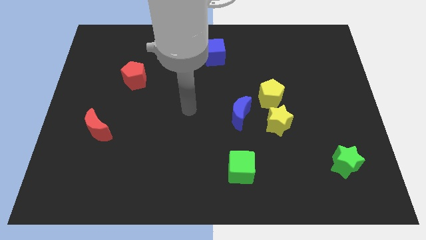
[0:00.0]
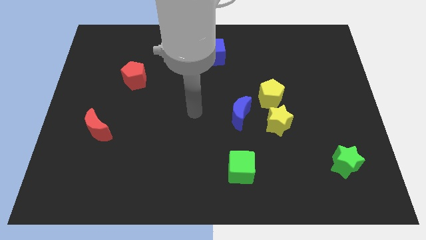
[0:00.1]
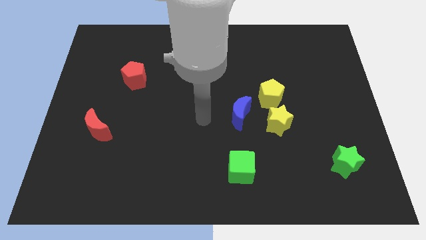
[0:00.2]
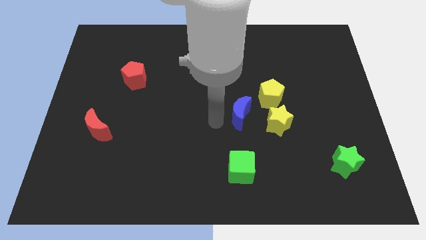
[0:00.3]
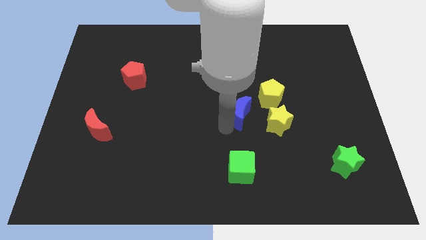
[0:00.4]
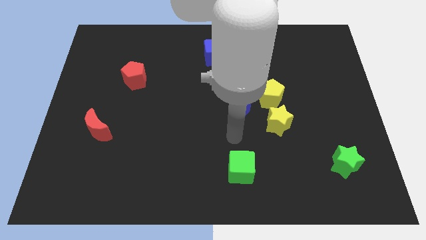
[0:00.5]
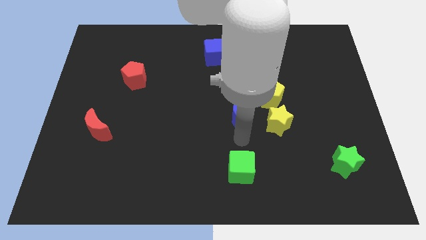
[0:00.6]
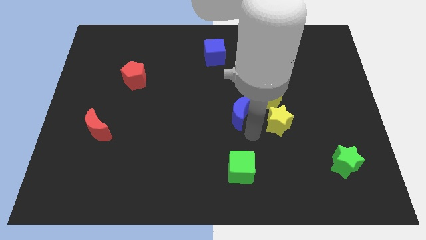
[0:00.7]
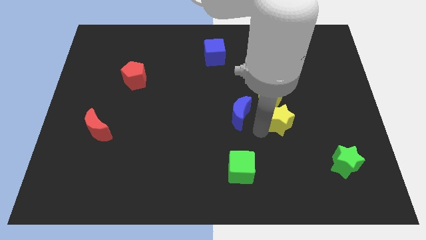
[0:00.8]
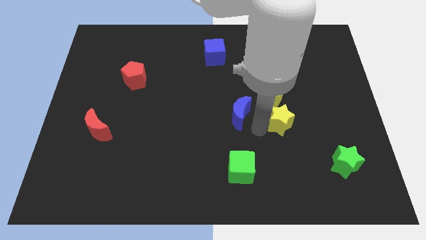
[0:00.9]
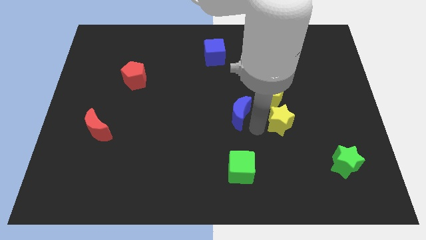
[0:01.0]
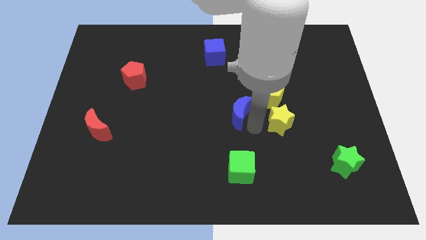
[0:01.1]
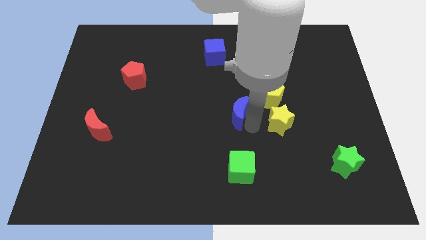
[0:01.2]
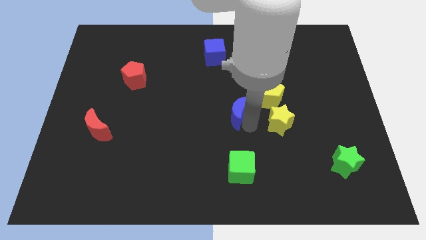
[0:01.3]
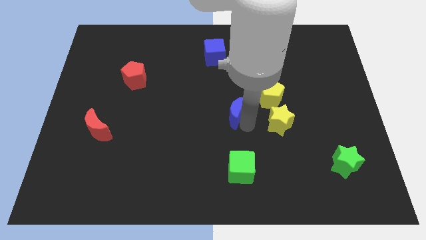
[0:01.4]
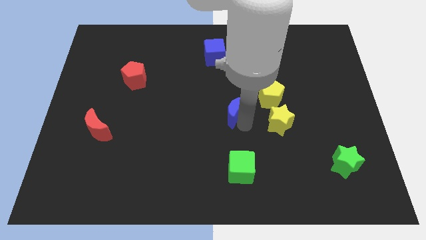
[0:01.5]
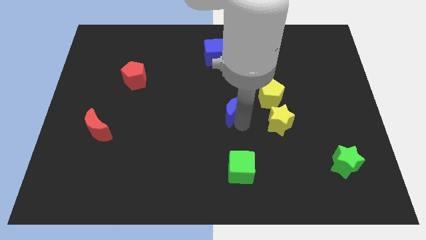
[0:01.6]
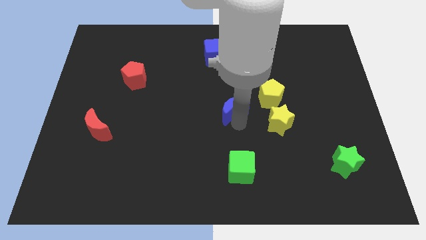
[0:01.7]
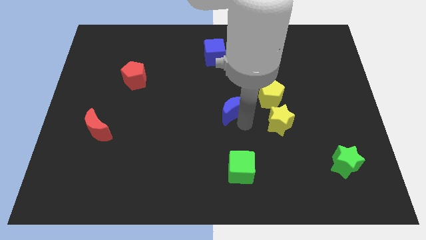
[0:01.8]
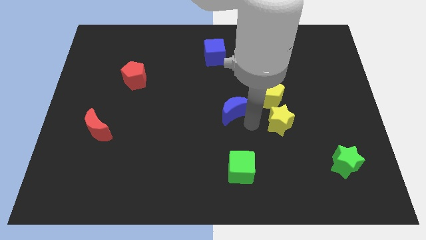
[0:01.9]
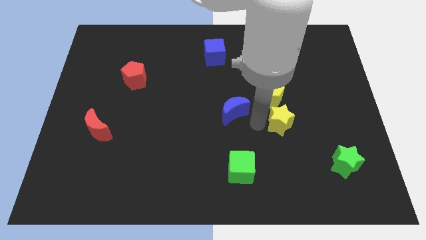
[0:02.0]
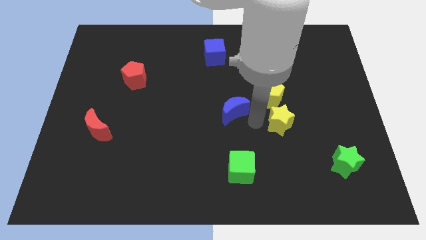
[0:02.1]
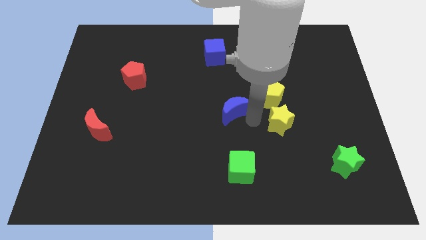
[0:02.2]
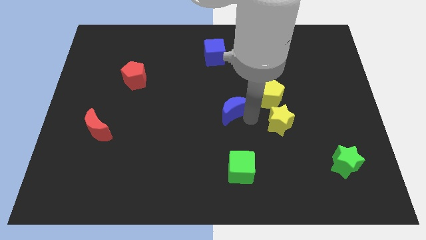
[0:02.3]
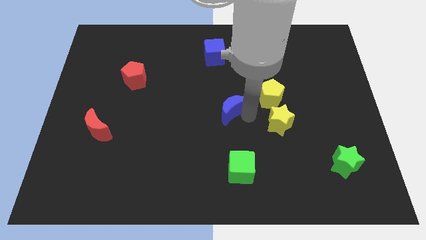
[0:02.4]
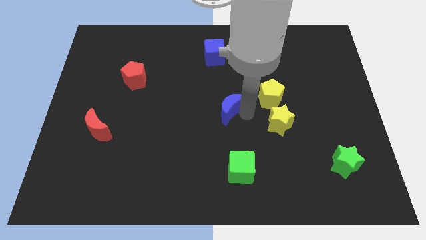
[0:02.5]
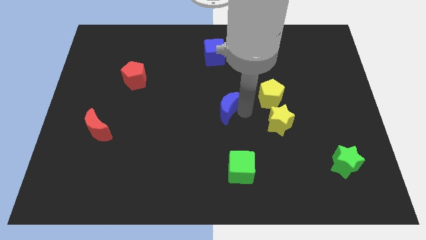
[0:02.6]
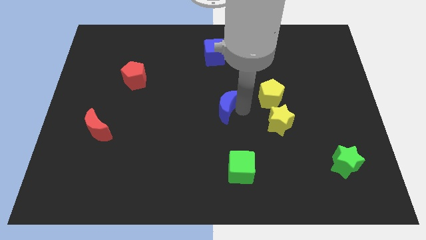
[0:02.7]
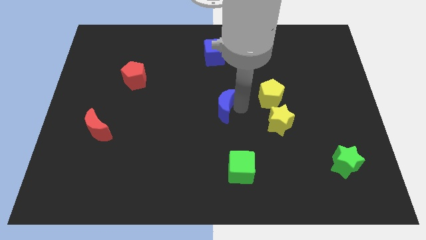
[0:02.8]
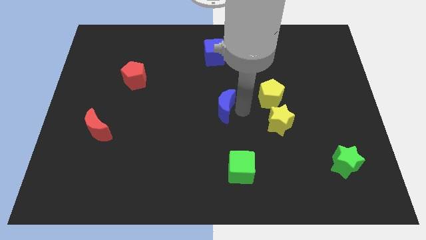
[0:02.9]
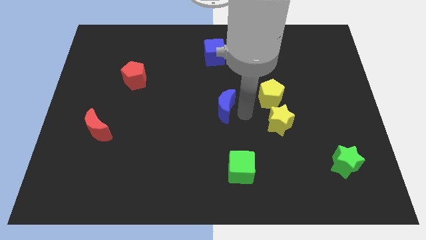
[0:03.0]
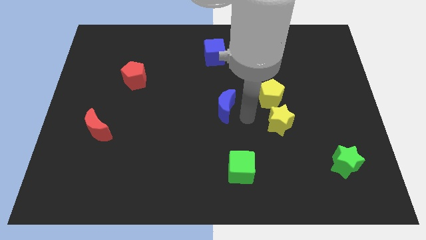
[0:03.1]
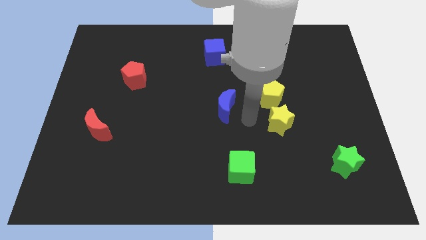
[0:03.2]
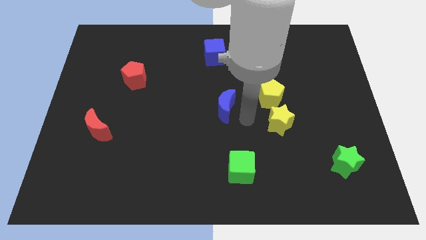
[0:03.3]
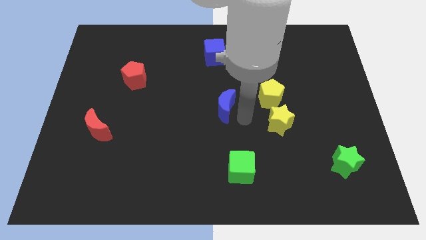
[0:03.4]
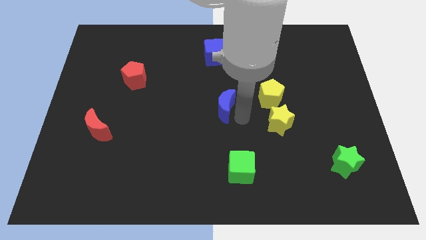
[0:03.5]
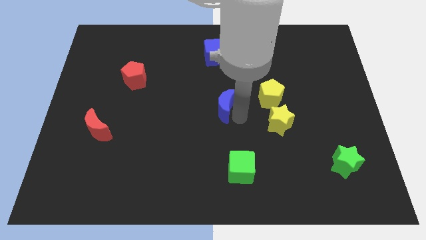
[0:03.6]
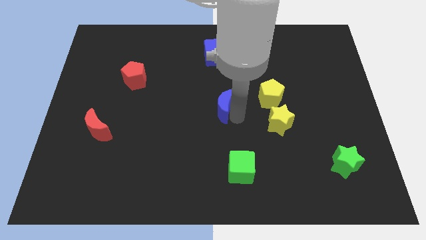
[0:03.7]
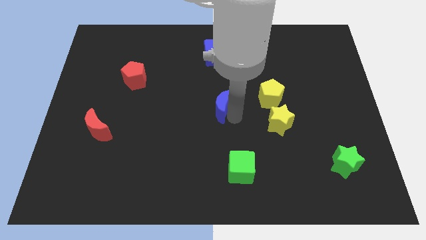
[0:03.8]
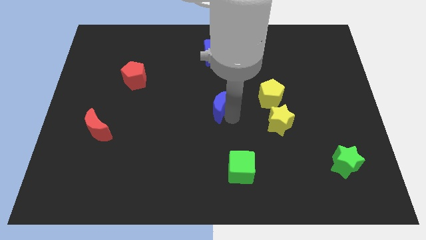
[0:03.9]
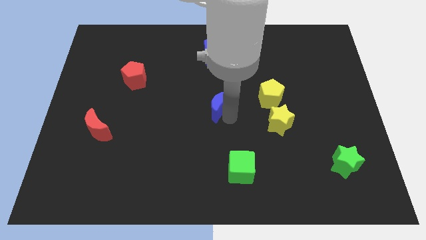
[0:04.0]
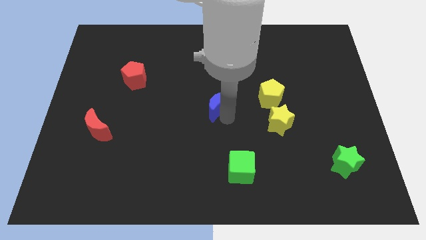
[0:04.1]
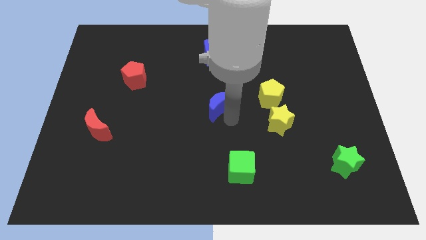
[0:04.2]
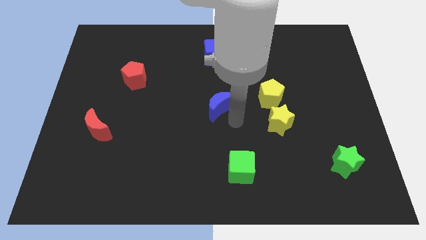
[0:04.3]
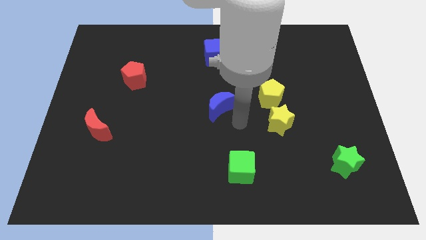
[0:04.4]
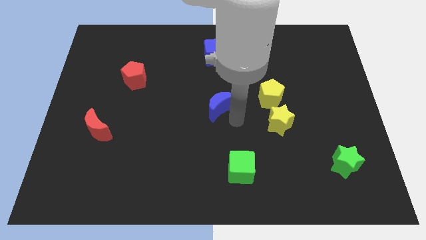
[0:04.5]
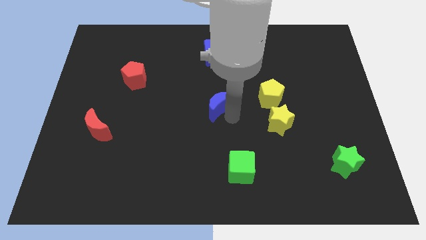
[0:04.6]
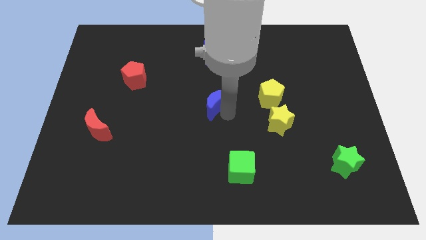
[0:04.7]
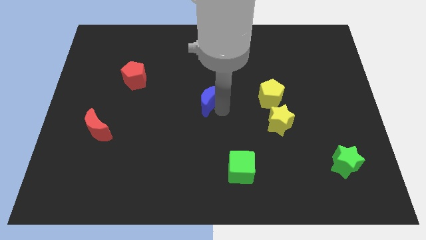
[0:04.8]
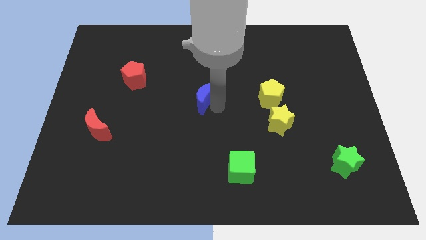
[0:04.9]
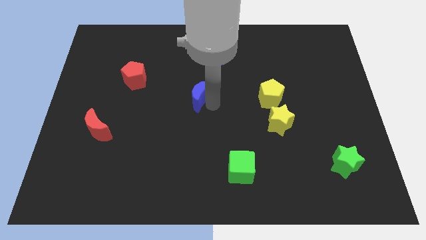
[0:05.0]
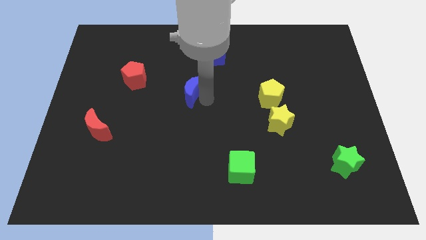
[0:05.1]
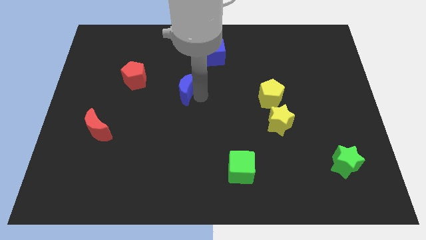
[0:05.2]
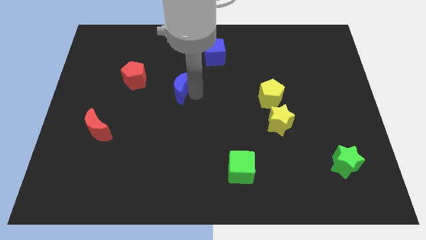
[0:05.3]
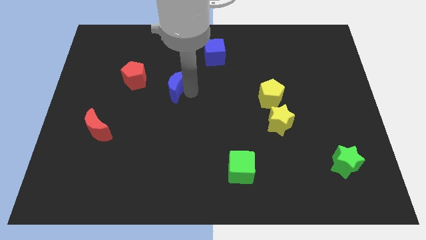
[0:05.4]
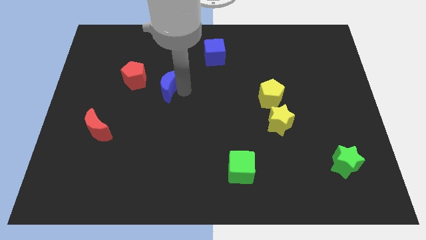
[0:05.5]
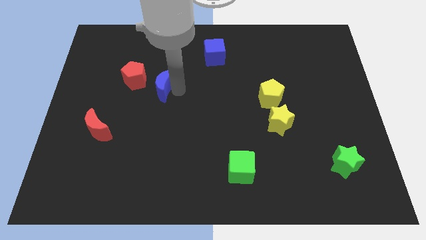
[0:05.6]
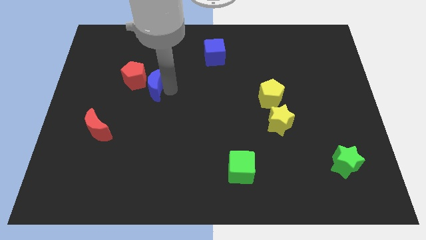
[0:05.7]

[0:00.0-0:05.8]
slide the blue moon towards the red pentagon

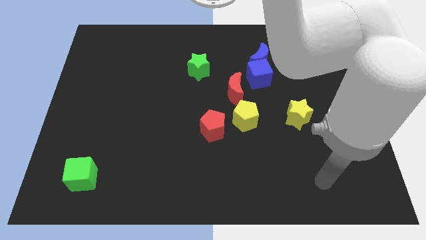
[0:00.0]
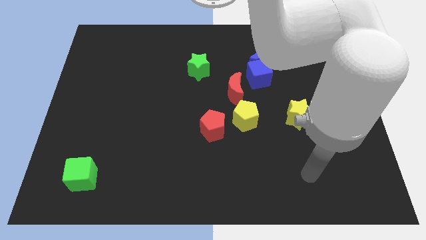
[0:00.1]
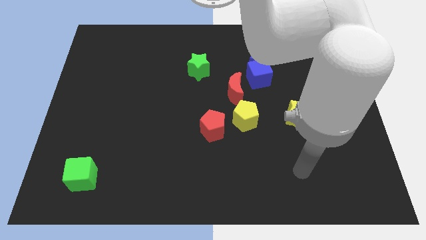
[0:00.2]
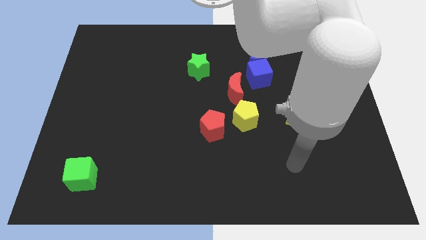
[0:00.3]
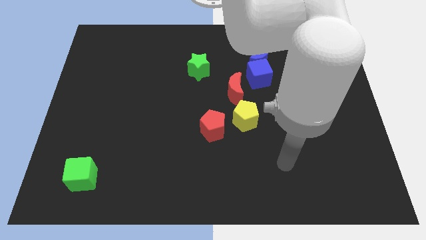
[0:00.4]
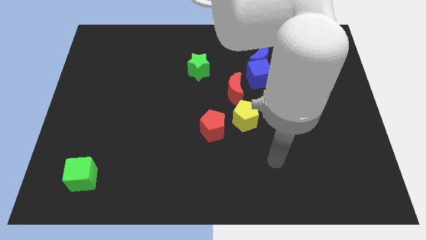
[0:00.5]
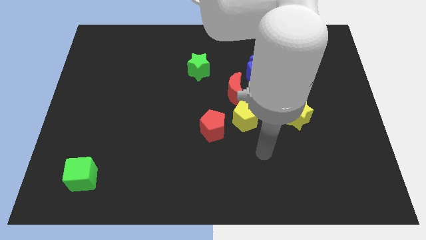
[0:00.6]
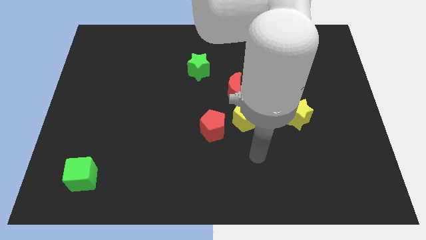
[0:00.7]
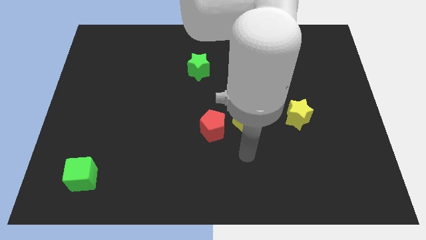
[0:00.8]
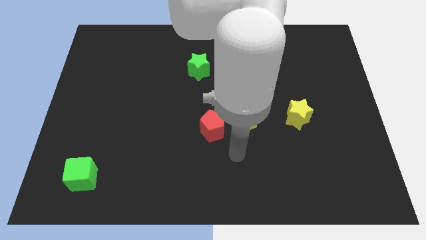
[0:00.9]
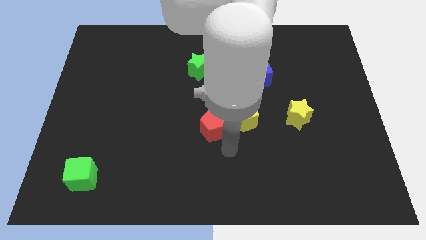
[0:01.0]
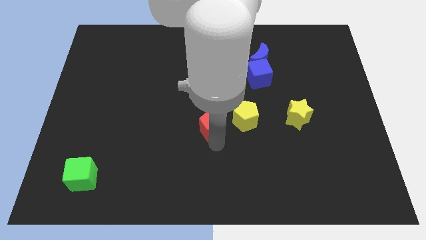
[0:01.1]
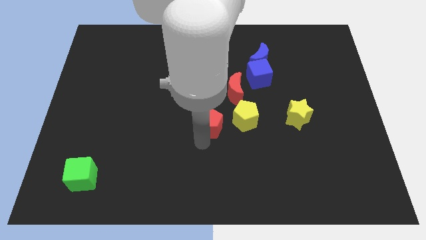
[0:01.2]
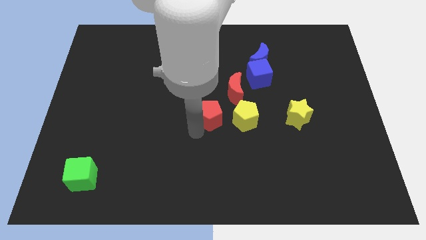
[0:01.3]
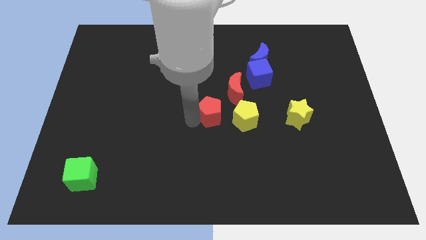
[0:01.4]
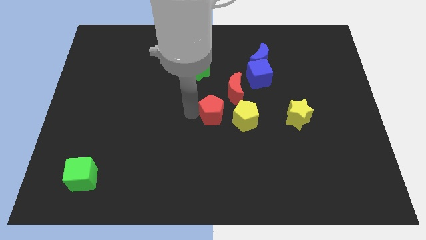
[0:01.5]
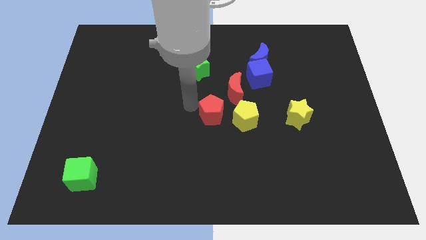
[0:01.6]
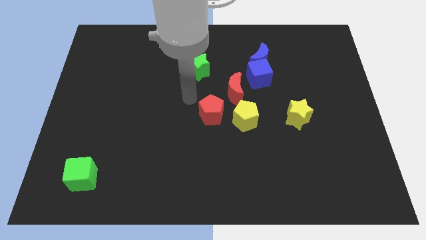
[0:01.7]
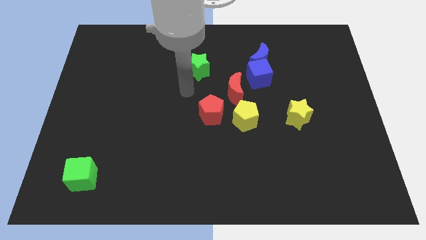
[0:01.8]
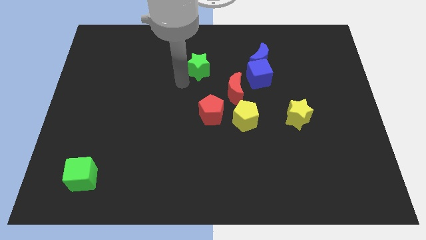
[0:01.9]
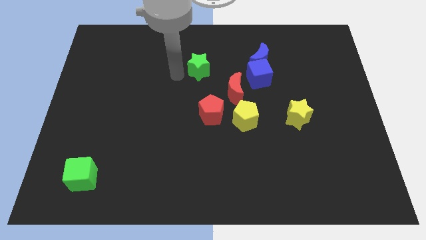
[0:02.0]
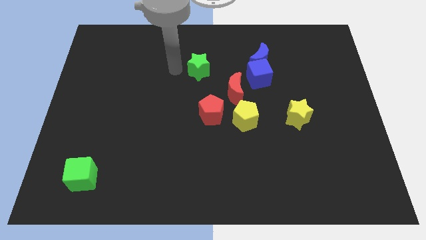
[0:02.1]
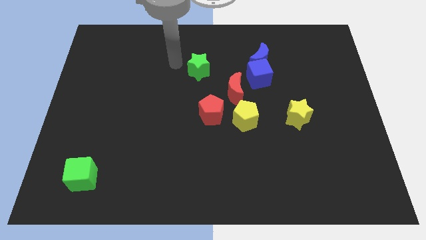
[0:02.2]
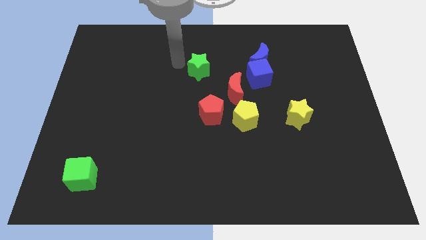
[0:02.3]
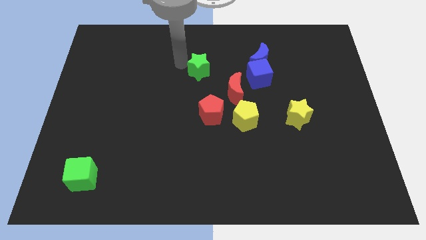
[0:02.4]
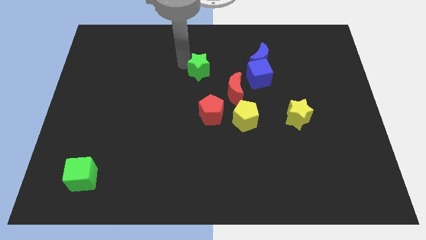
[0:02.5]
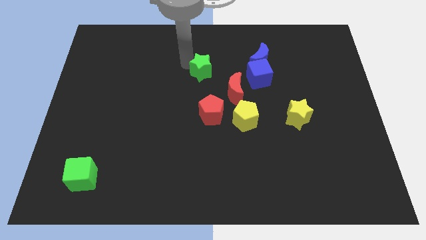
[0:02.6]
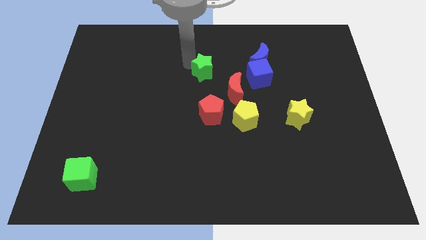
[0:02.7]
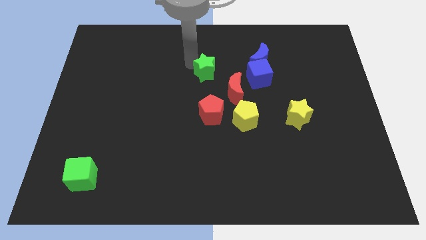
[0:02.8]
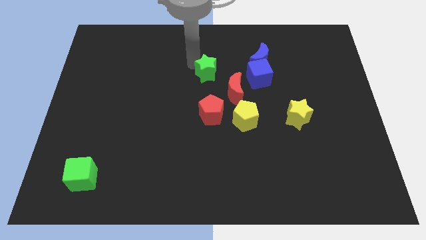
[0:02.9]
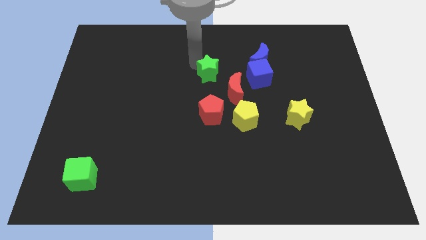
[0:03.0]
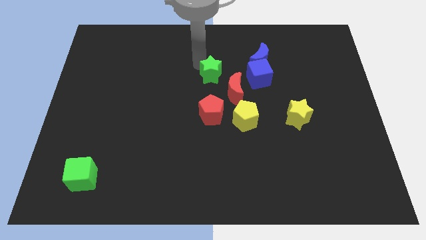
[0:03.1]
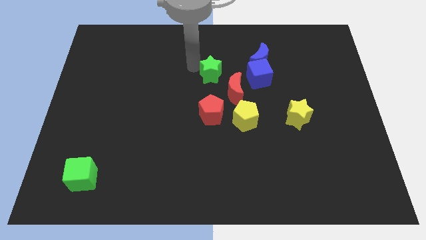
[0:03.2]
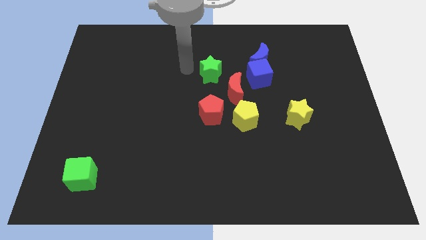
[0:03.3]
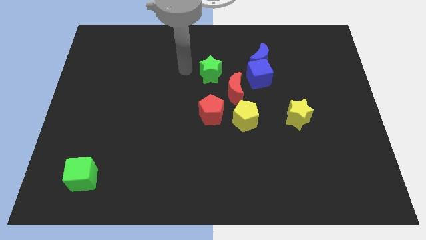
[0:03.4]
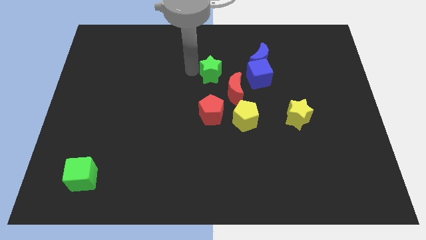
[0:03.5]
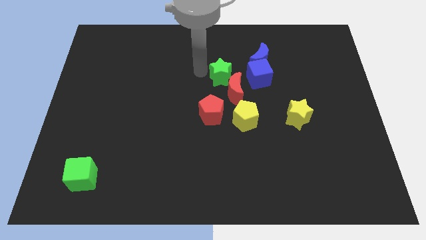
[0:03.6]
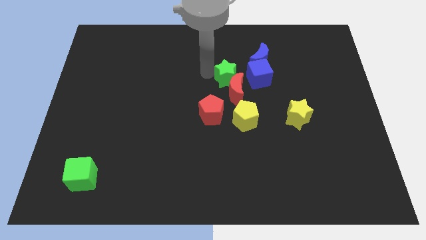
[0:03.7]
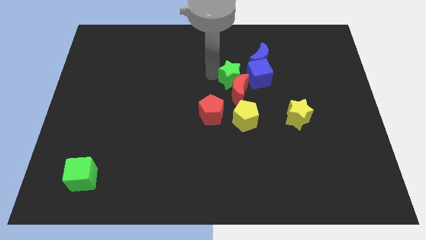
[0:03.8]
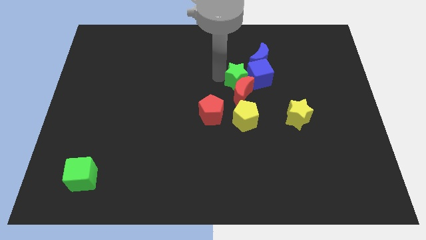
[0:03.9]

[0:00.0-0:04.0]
push the green star towards the blue cube
